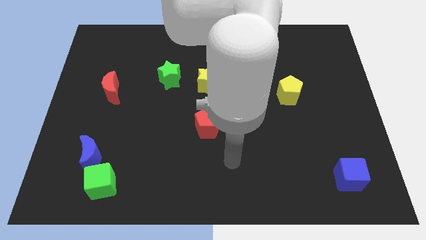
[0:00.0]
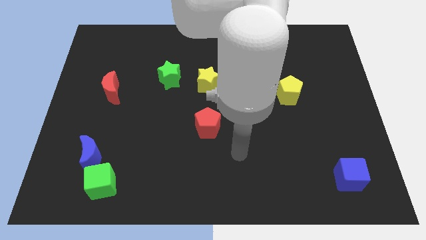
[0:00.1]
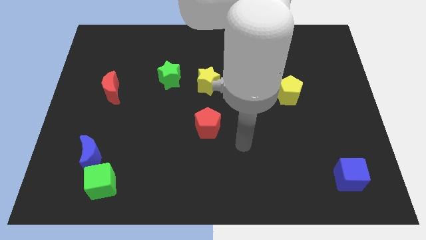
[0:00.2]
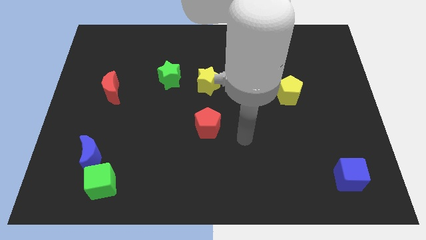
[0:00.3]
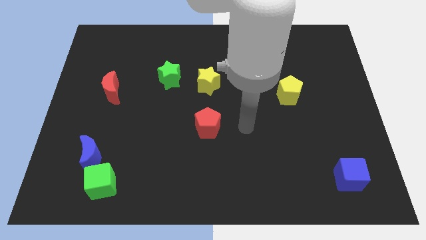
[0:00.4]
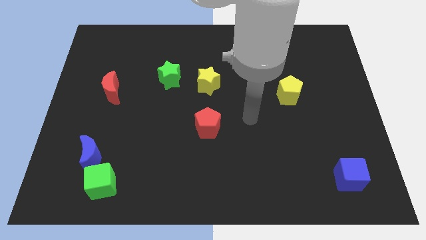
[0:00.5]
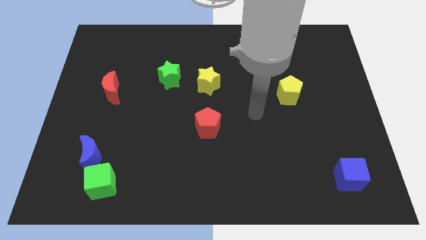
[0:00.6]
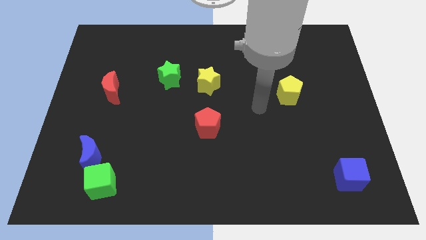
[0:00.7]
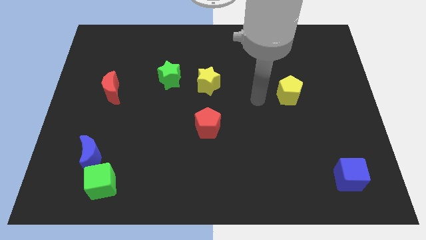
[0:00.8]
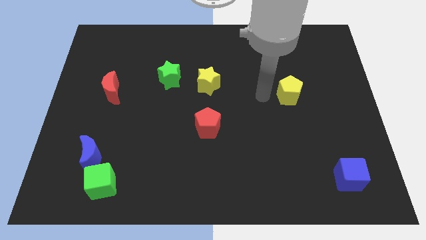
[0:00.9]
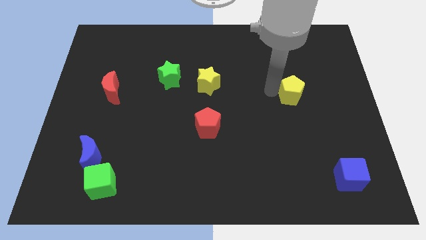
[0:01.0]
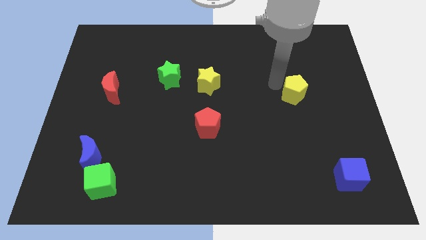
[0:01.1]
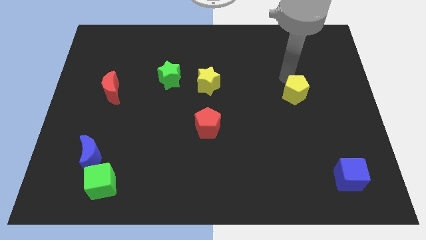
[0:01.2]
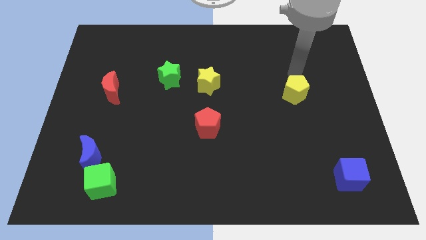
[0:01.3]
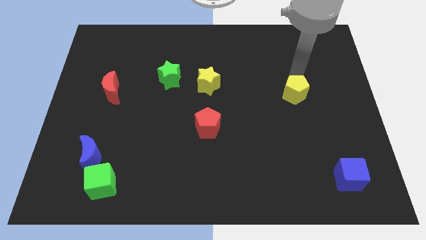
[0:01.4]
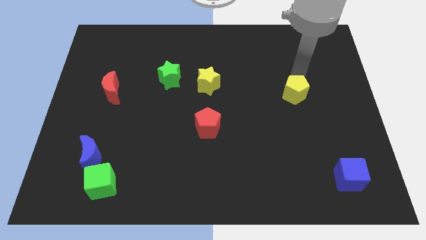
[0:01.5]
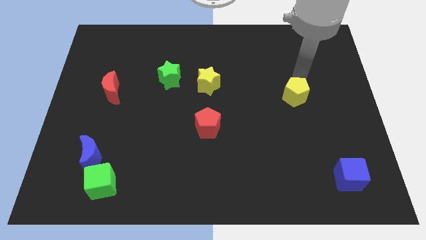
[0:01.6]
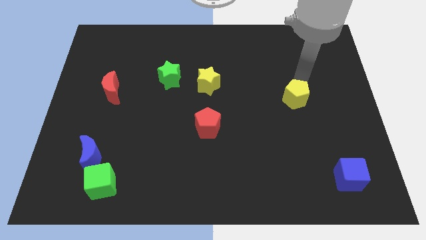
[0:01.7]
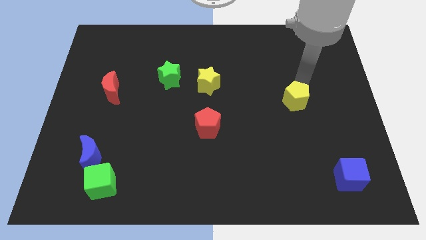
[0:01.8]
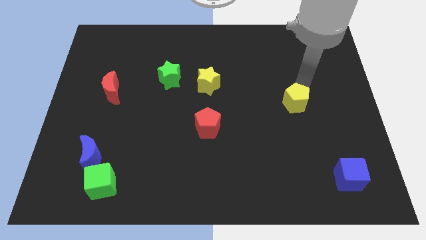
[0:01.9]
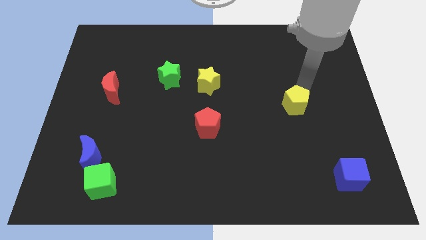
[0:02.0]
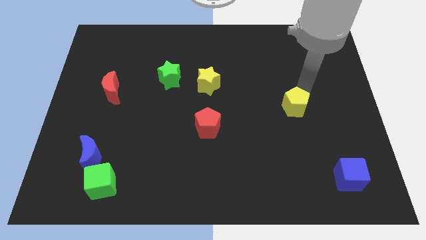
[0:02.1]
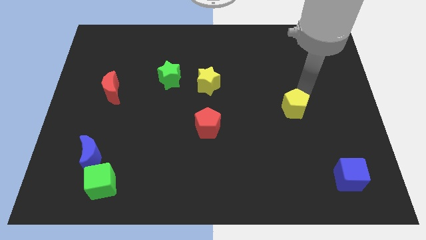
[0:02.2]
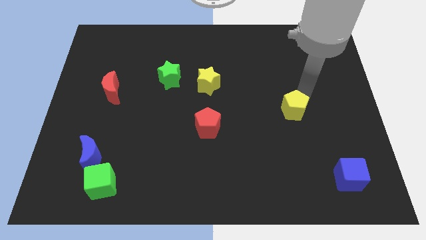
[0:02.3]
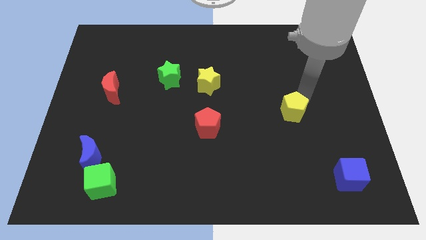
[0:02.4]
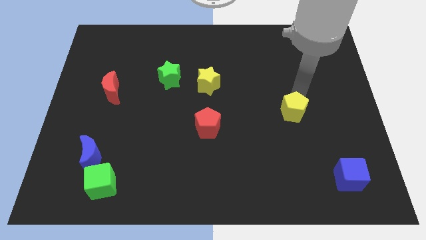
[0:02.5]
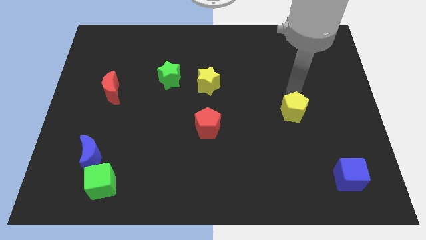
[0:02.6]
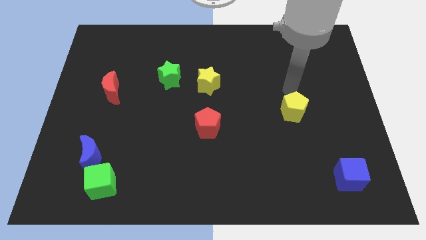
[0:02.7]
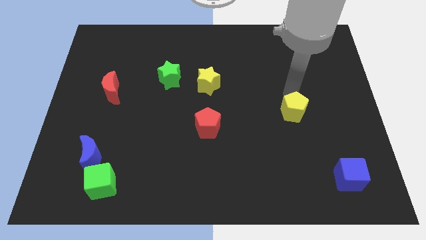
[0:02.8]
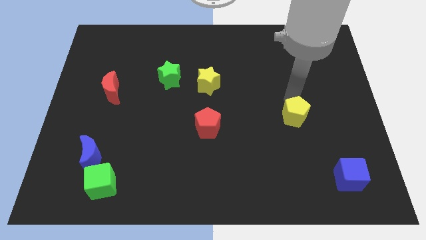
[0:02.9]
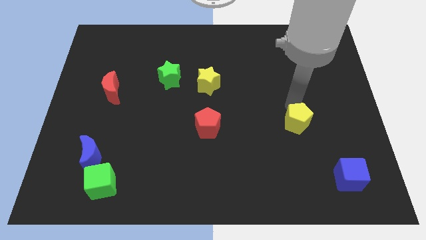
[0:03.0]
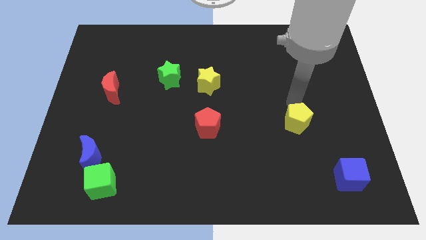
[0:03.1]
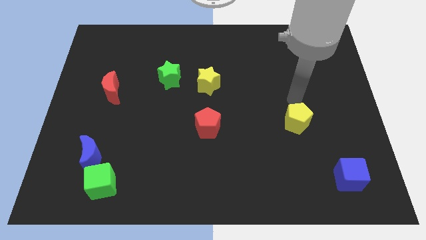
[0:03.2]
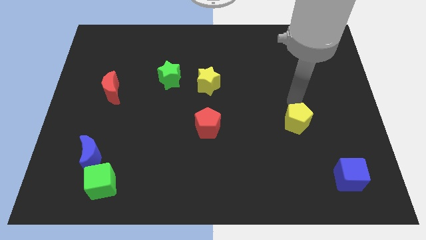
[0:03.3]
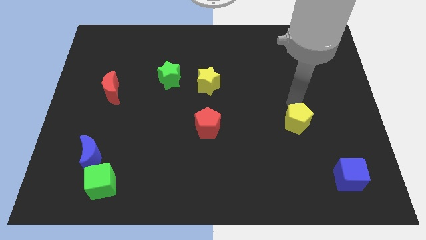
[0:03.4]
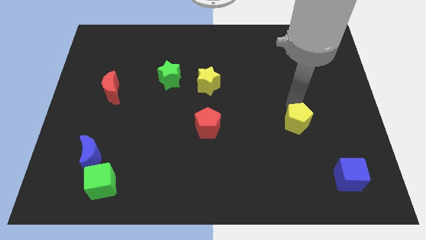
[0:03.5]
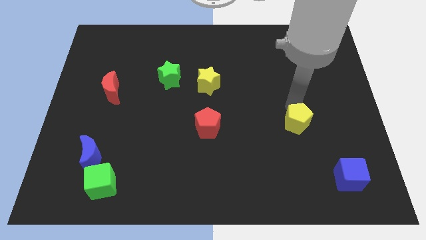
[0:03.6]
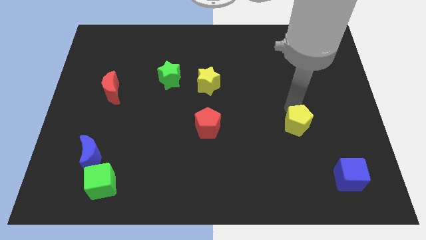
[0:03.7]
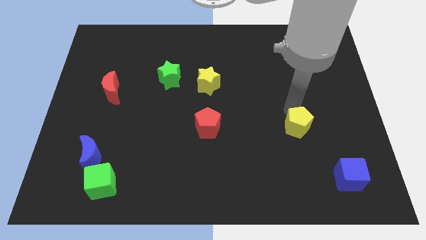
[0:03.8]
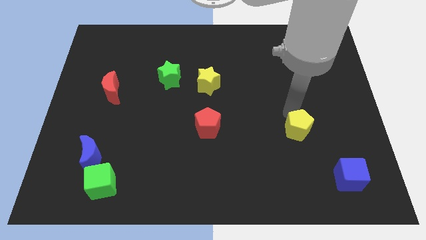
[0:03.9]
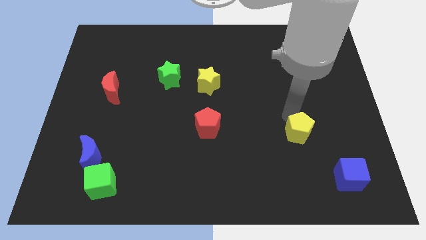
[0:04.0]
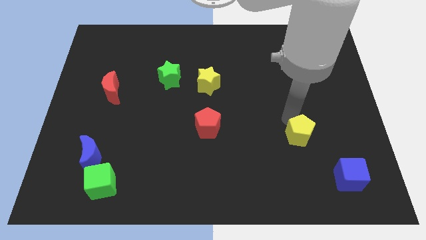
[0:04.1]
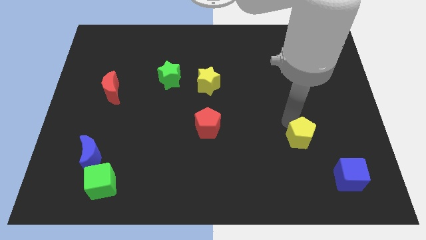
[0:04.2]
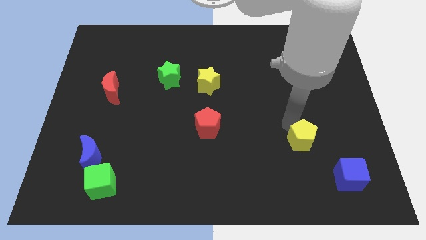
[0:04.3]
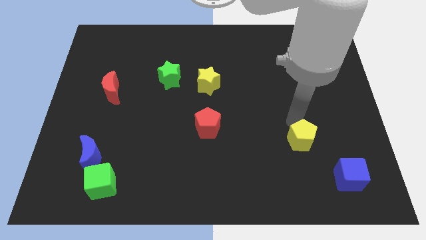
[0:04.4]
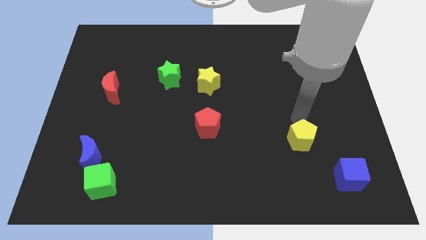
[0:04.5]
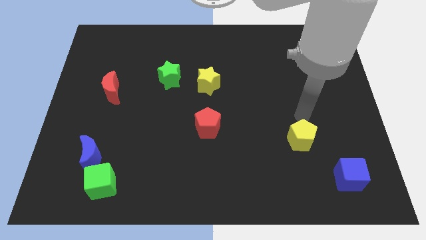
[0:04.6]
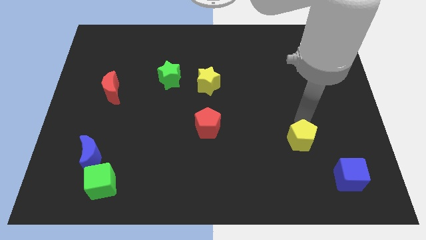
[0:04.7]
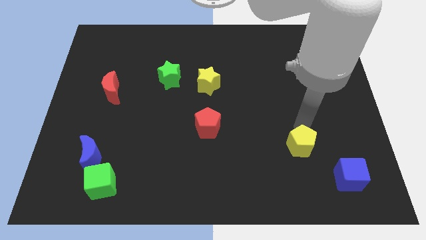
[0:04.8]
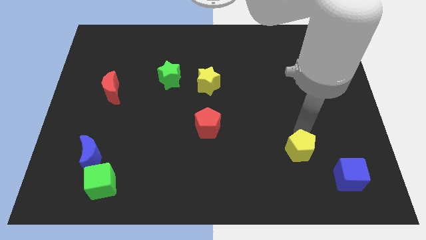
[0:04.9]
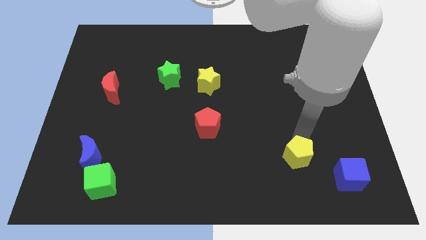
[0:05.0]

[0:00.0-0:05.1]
move the yellow pentagon just left of the blue cube

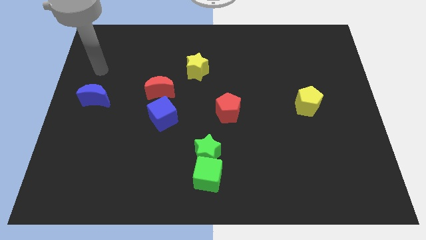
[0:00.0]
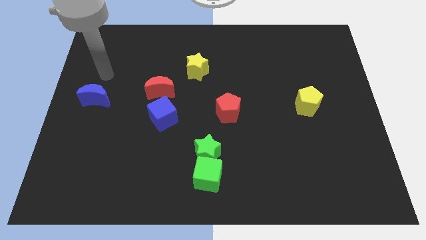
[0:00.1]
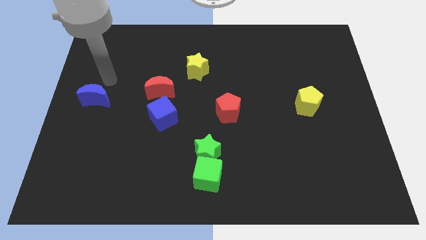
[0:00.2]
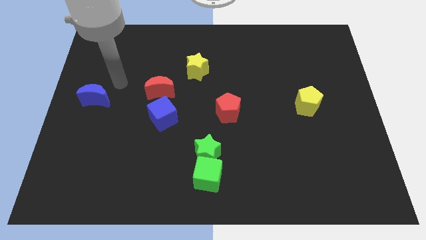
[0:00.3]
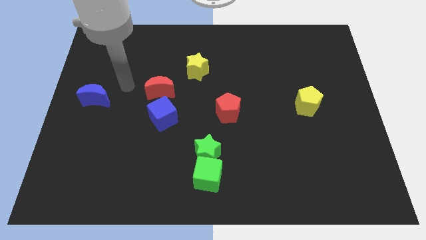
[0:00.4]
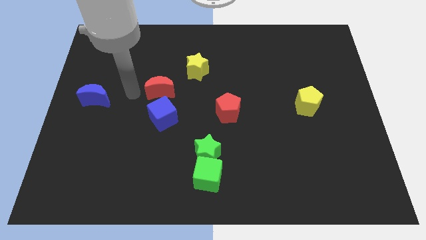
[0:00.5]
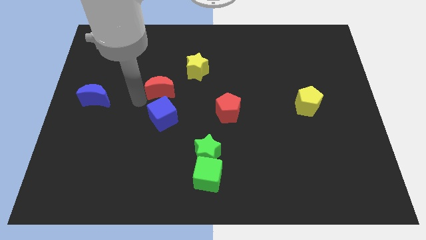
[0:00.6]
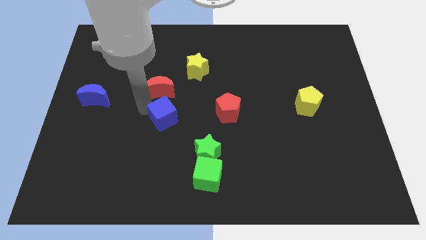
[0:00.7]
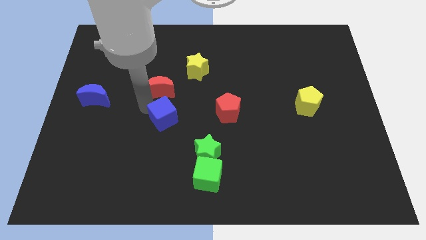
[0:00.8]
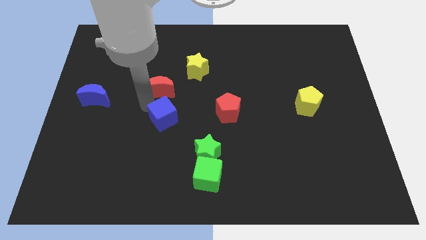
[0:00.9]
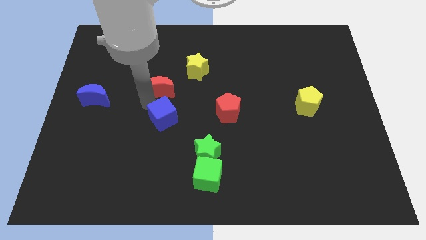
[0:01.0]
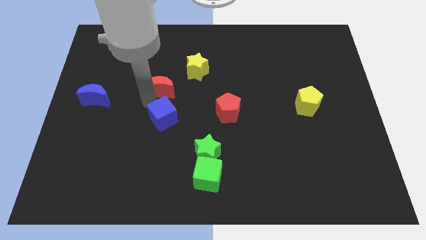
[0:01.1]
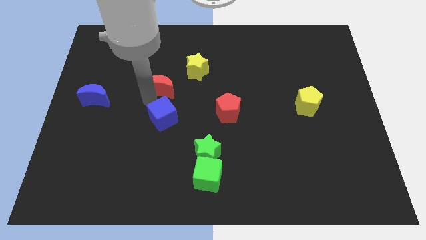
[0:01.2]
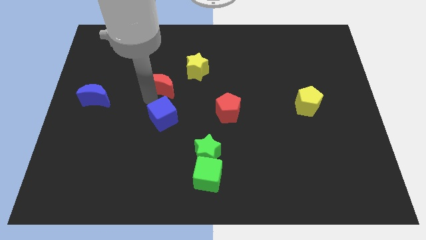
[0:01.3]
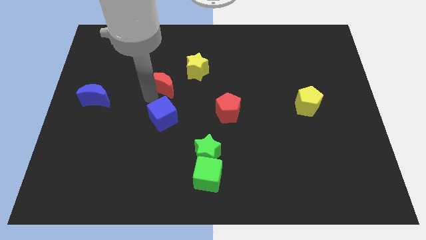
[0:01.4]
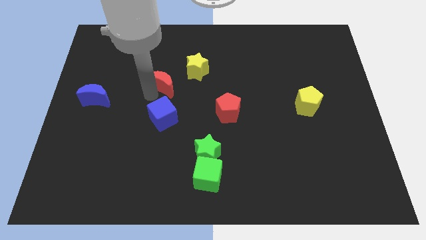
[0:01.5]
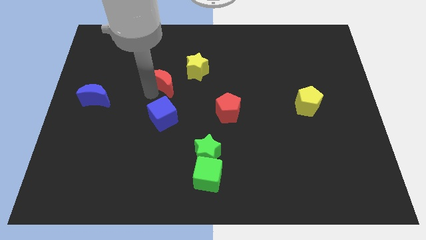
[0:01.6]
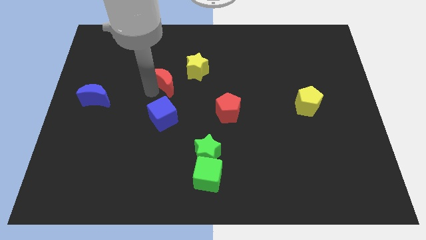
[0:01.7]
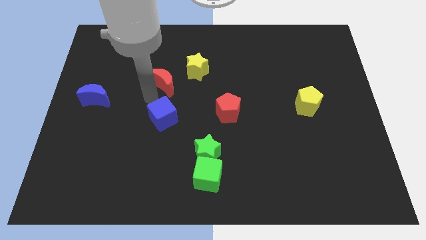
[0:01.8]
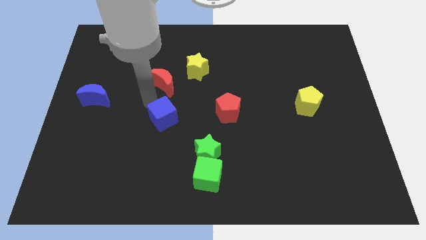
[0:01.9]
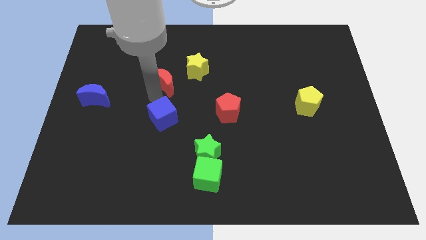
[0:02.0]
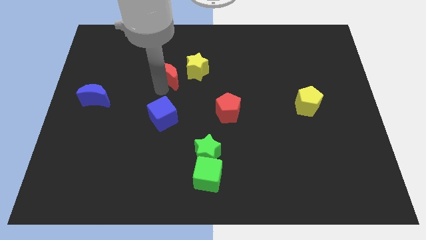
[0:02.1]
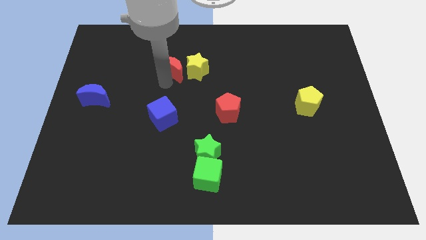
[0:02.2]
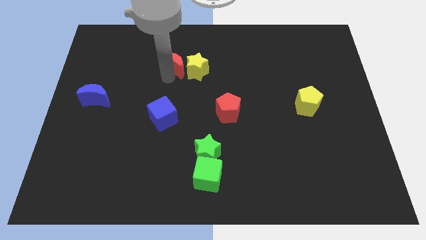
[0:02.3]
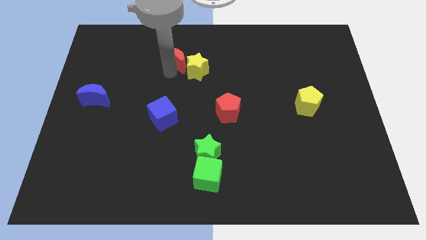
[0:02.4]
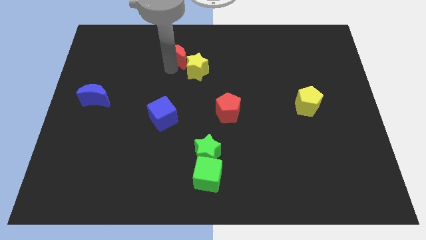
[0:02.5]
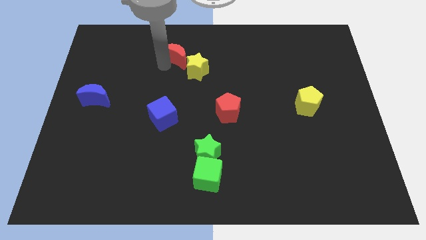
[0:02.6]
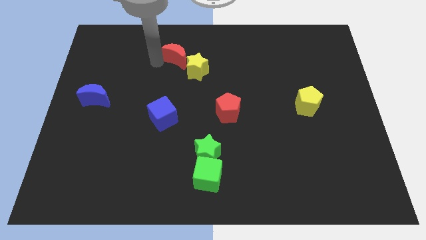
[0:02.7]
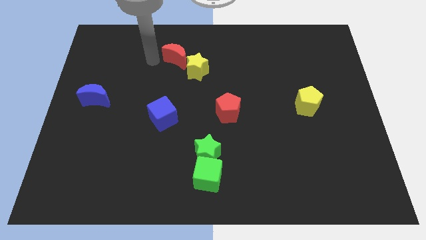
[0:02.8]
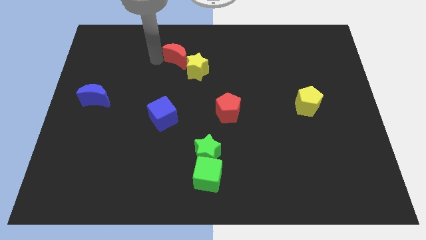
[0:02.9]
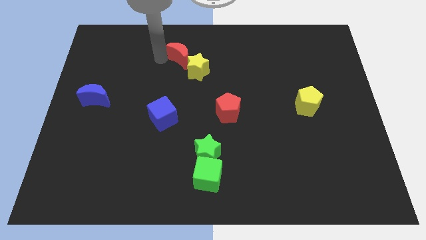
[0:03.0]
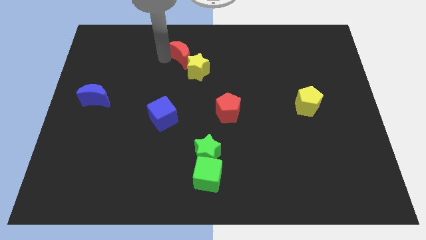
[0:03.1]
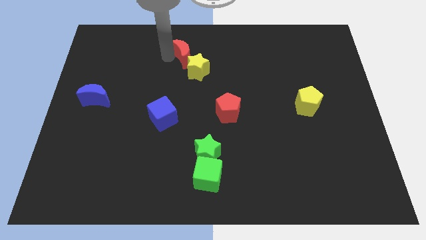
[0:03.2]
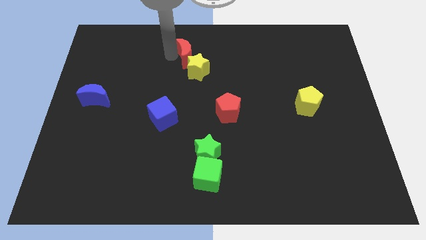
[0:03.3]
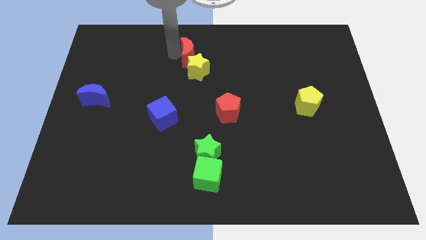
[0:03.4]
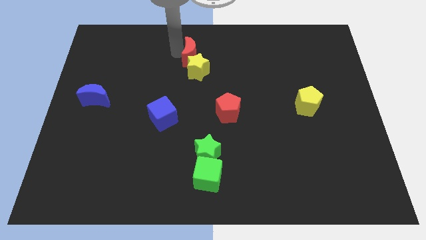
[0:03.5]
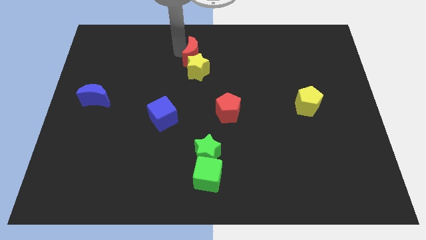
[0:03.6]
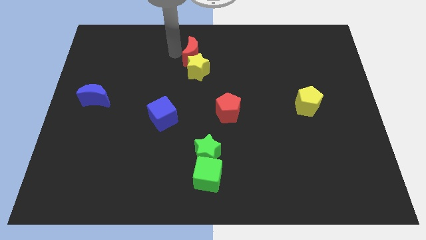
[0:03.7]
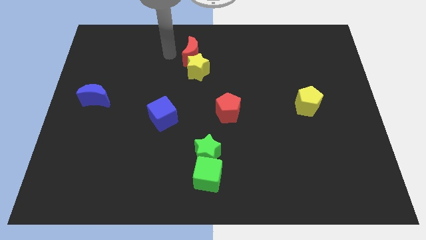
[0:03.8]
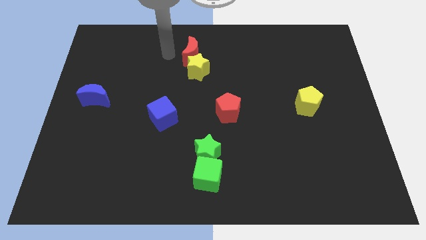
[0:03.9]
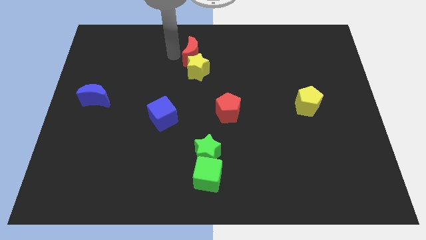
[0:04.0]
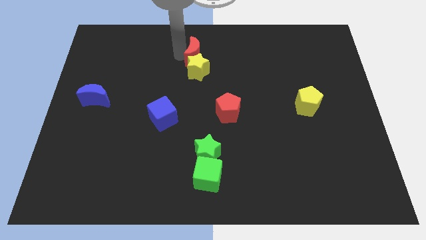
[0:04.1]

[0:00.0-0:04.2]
put the red moon to the top right side of the yellow star
